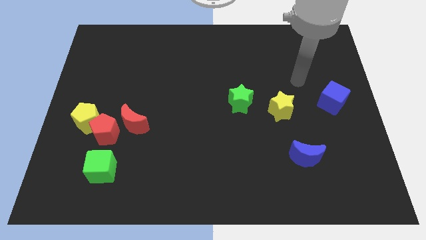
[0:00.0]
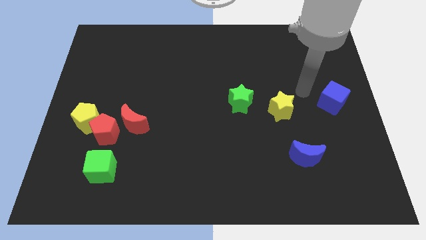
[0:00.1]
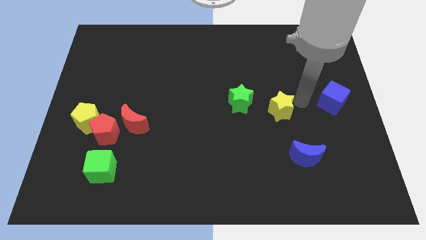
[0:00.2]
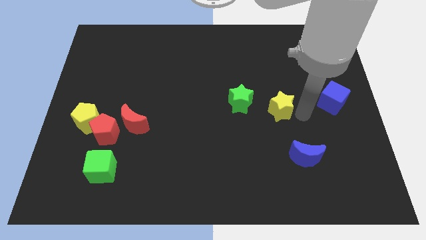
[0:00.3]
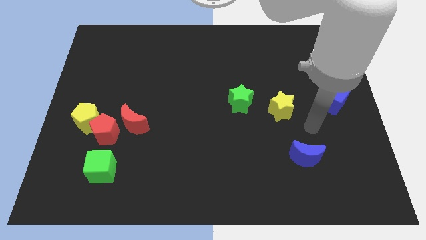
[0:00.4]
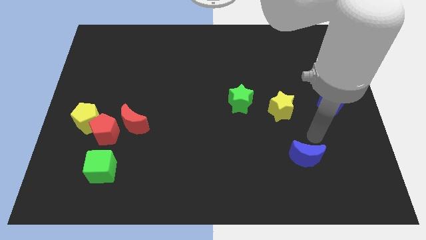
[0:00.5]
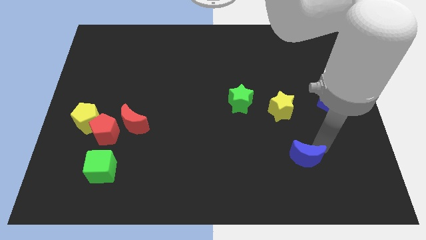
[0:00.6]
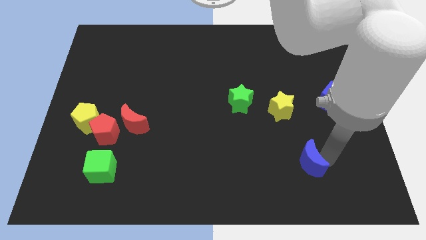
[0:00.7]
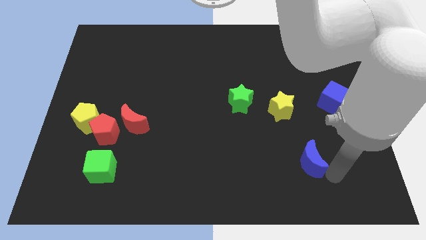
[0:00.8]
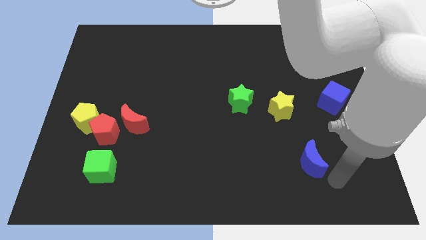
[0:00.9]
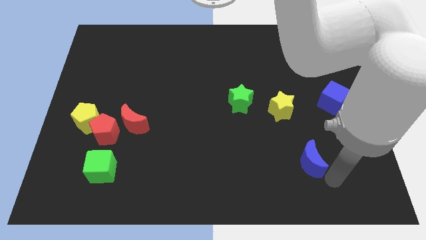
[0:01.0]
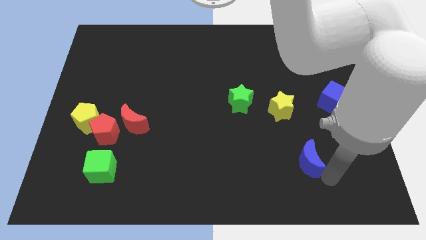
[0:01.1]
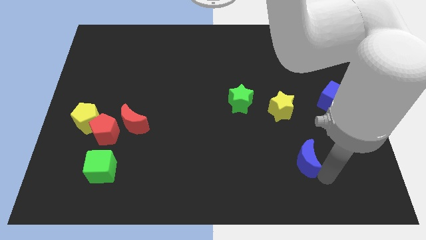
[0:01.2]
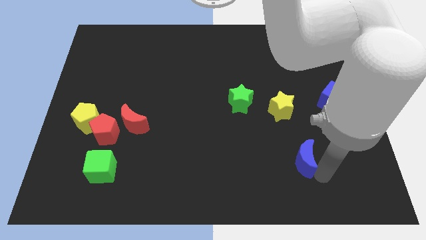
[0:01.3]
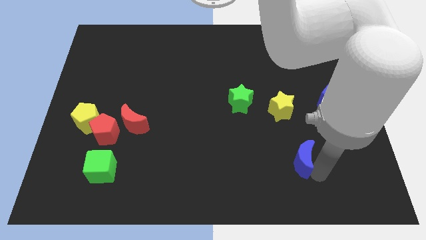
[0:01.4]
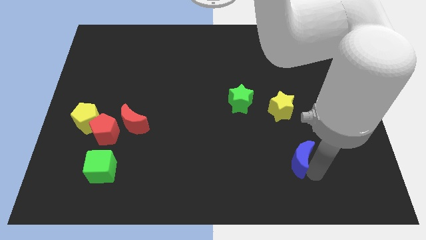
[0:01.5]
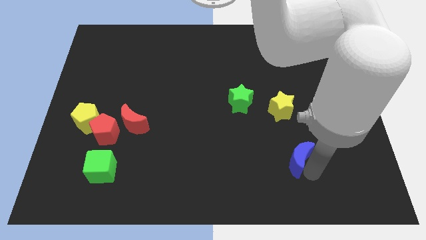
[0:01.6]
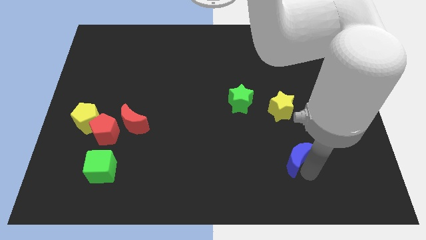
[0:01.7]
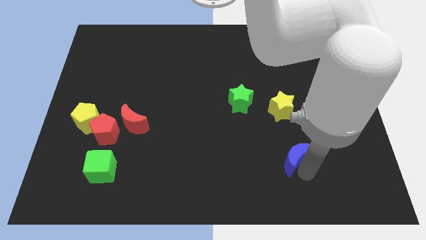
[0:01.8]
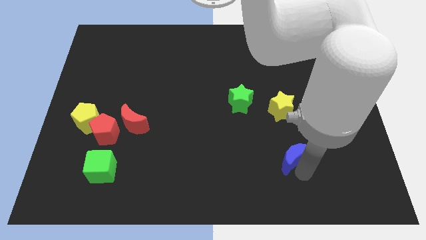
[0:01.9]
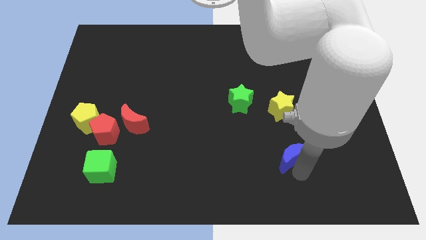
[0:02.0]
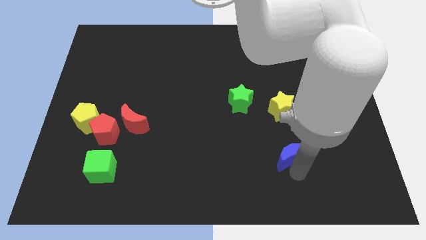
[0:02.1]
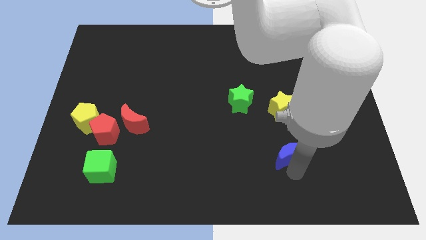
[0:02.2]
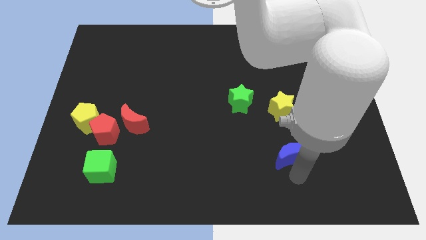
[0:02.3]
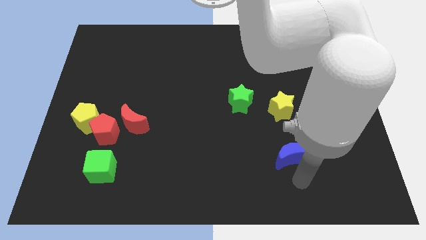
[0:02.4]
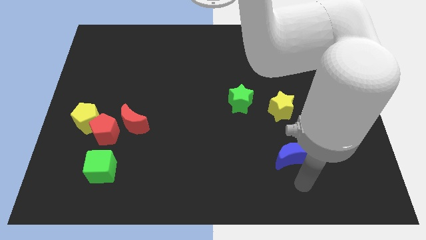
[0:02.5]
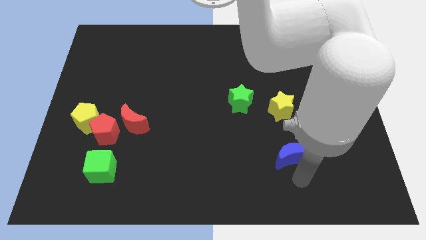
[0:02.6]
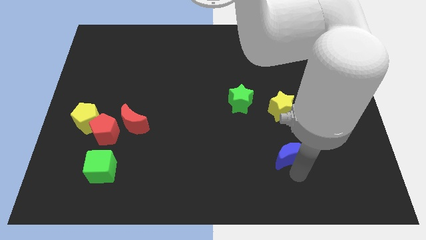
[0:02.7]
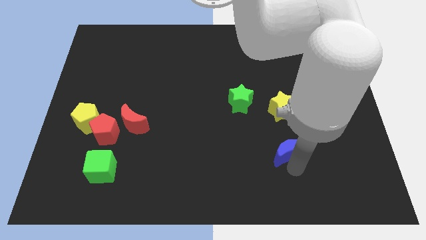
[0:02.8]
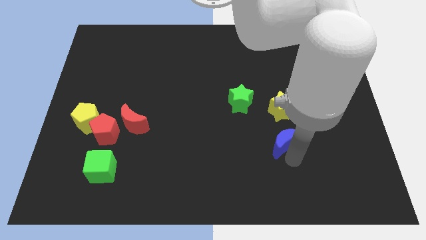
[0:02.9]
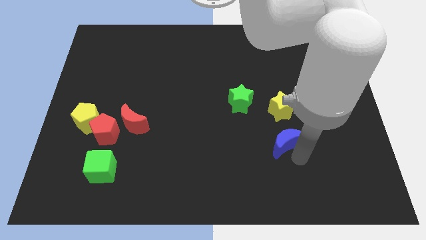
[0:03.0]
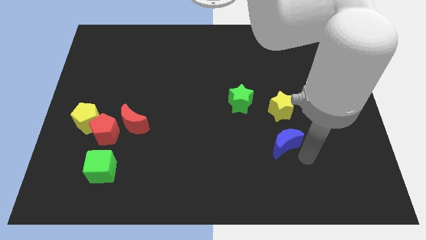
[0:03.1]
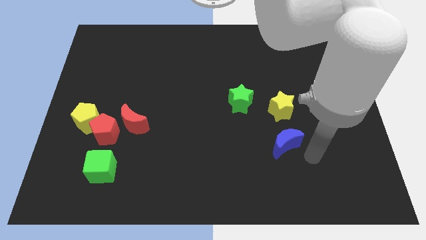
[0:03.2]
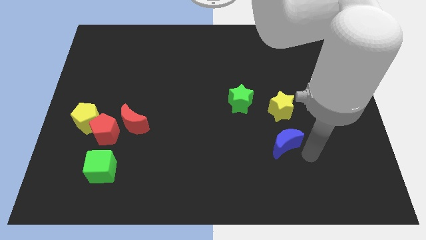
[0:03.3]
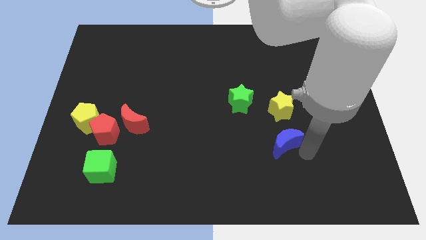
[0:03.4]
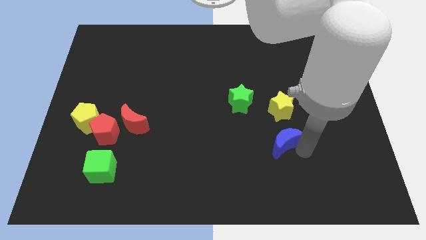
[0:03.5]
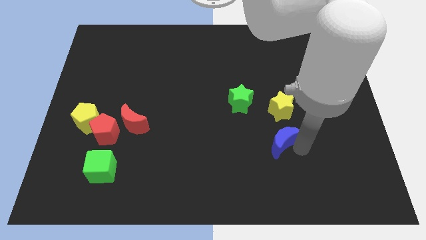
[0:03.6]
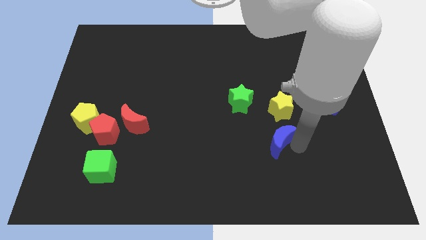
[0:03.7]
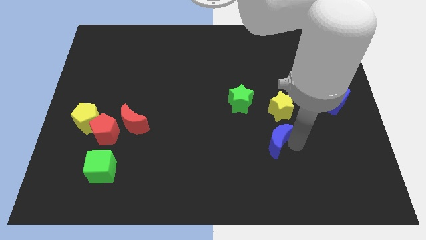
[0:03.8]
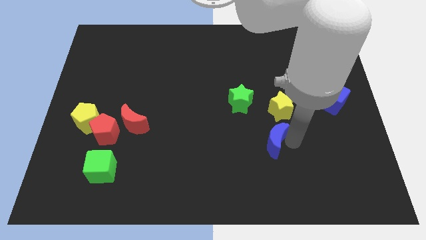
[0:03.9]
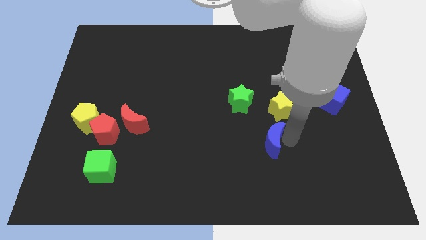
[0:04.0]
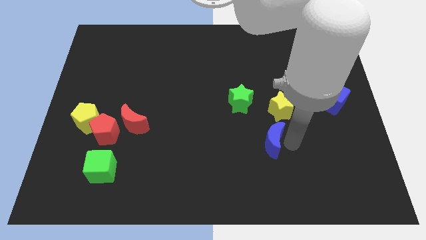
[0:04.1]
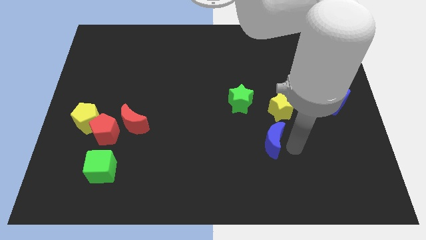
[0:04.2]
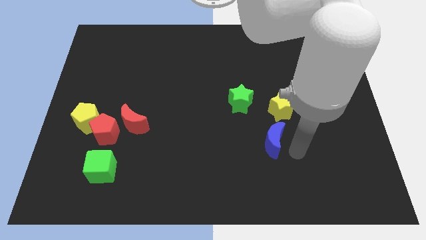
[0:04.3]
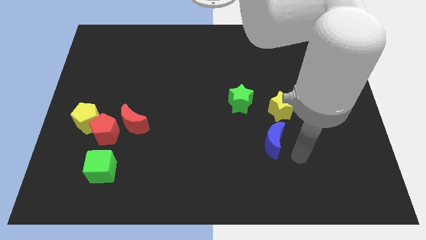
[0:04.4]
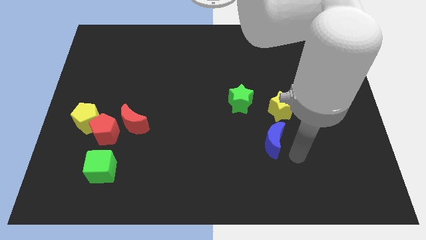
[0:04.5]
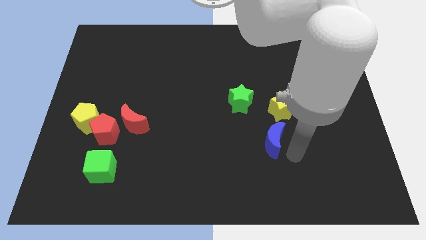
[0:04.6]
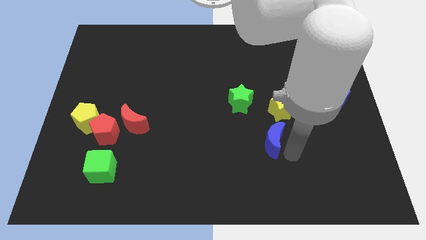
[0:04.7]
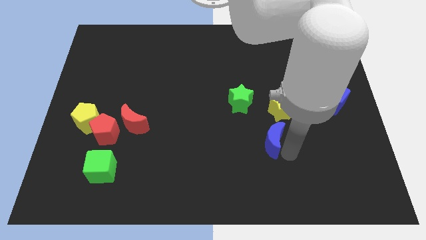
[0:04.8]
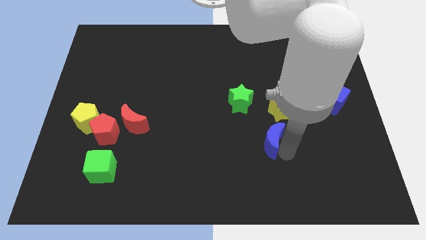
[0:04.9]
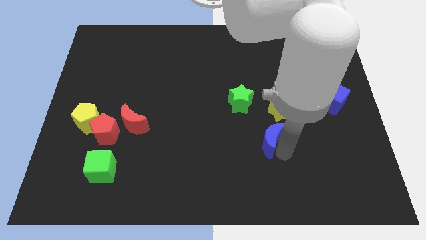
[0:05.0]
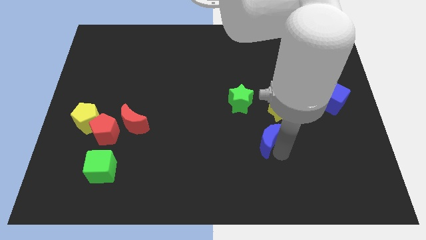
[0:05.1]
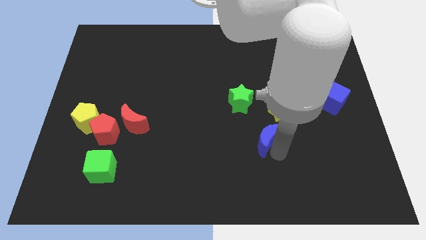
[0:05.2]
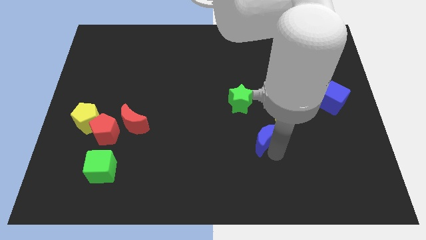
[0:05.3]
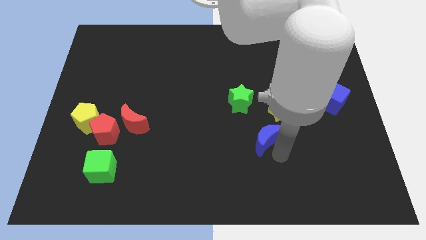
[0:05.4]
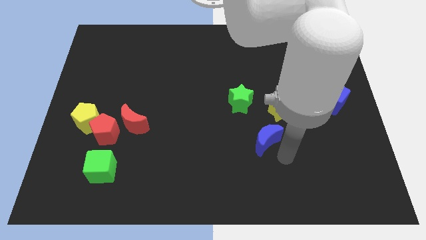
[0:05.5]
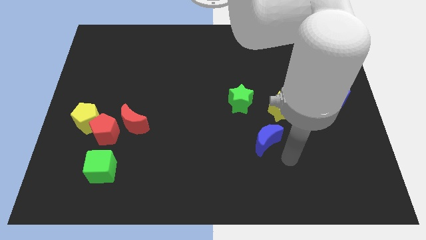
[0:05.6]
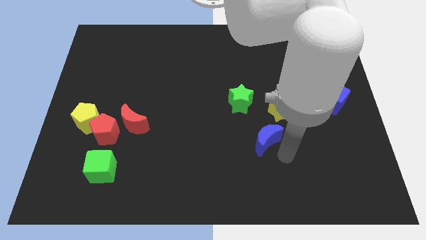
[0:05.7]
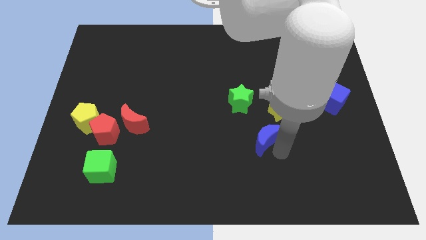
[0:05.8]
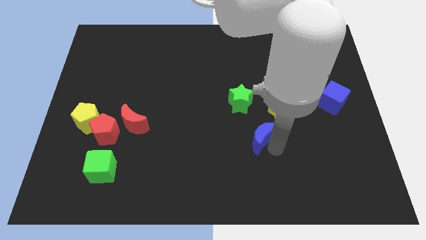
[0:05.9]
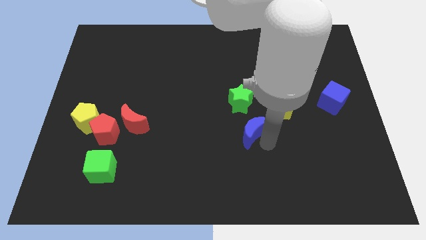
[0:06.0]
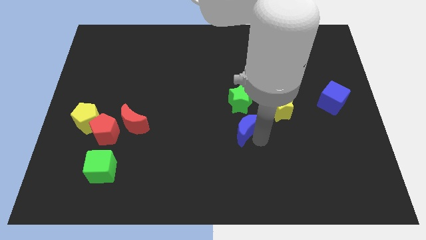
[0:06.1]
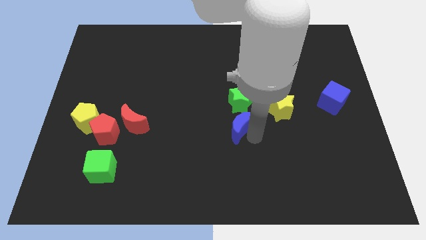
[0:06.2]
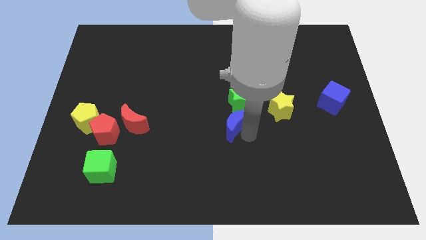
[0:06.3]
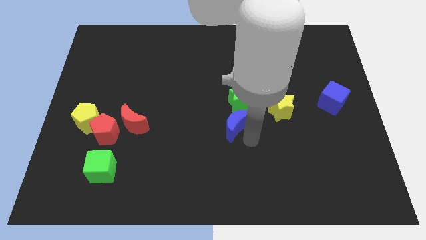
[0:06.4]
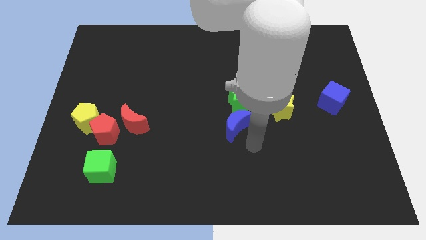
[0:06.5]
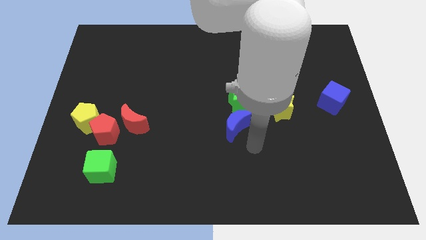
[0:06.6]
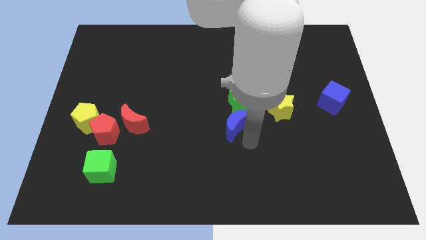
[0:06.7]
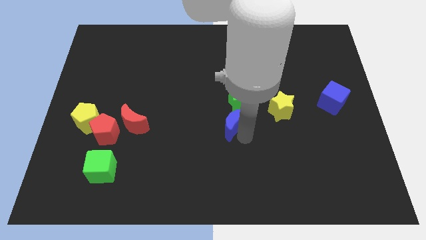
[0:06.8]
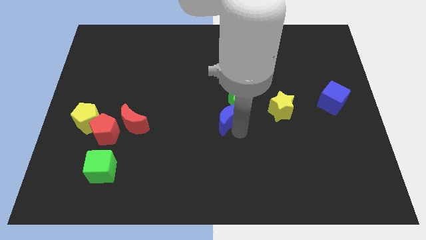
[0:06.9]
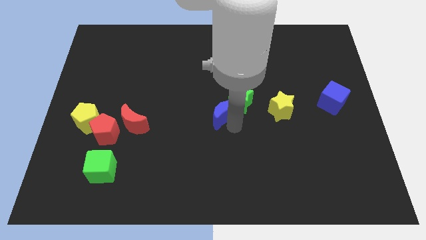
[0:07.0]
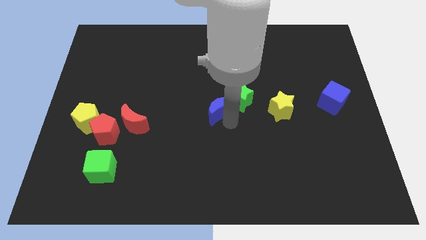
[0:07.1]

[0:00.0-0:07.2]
move the blue moon diagonally up and to the left

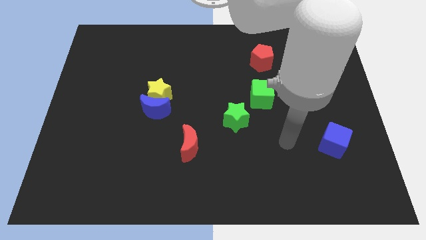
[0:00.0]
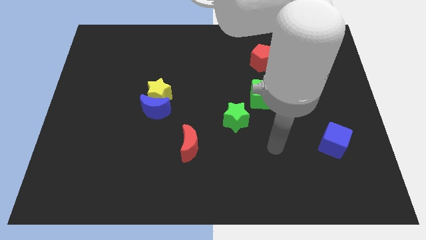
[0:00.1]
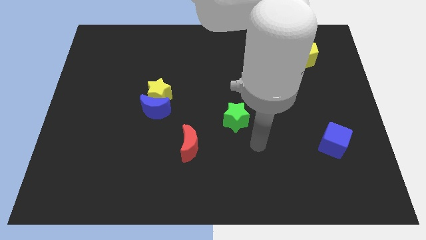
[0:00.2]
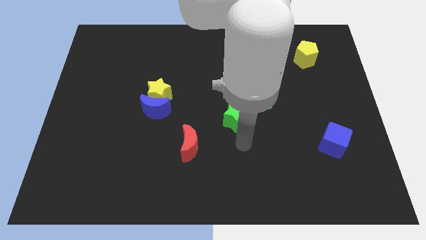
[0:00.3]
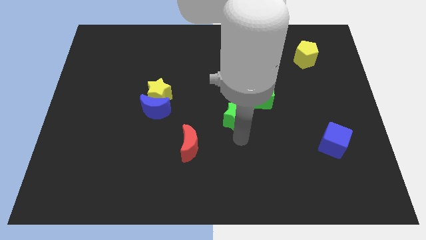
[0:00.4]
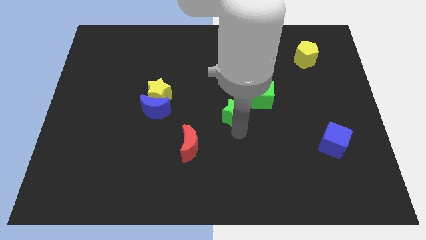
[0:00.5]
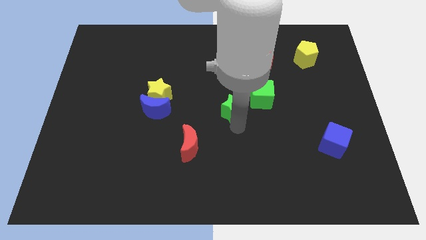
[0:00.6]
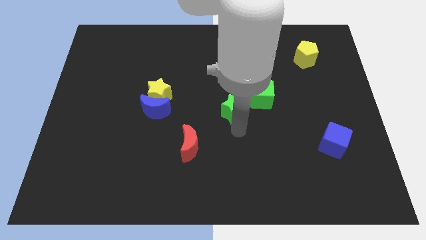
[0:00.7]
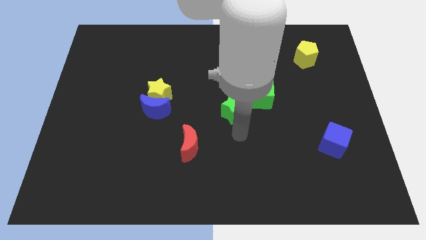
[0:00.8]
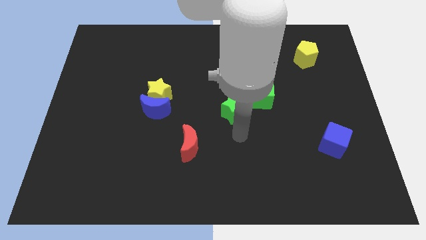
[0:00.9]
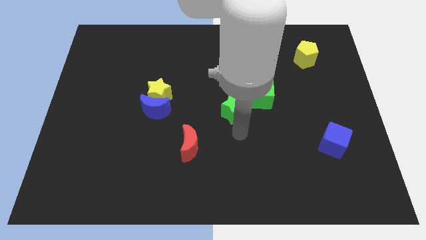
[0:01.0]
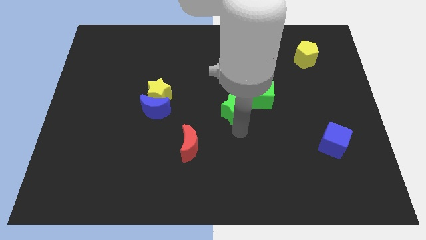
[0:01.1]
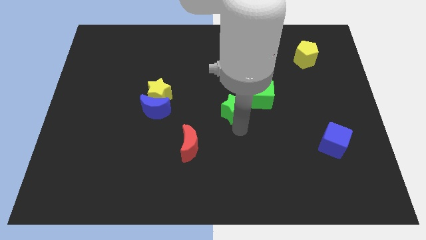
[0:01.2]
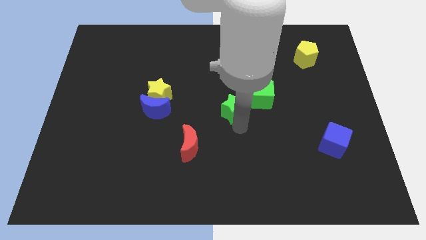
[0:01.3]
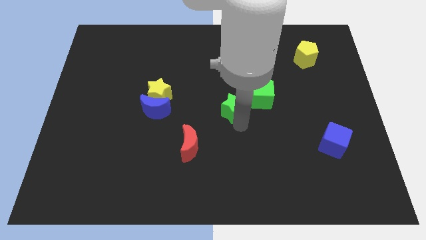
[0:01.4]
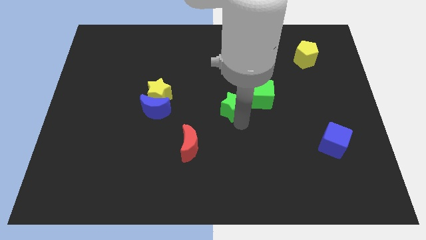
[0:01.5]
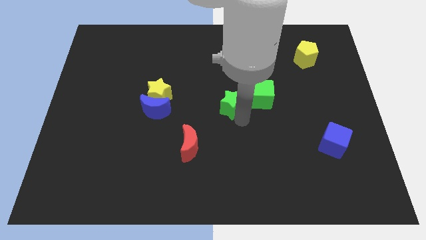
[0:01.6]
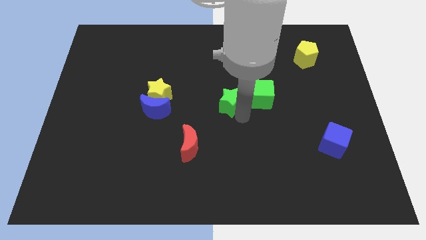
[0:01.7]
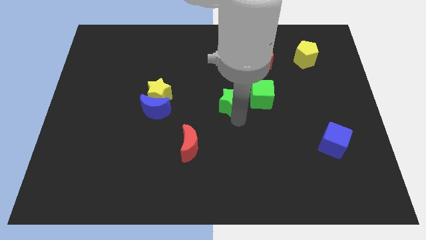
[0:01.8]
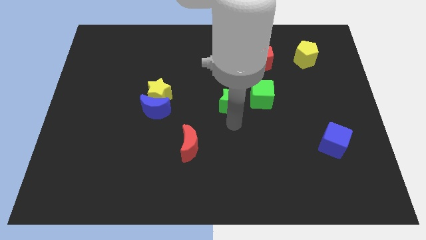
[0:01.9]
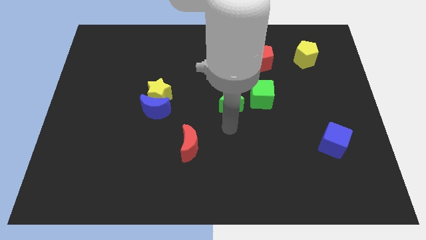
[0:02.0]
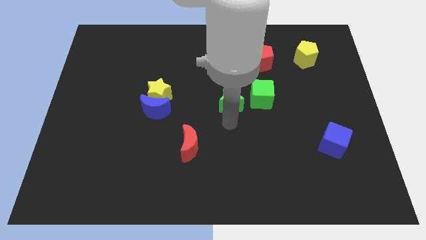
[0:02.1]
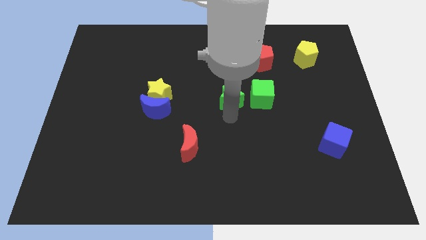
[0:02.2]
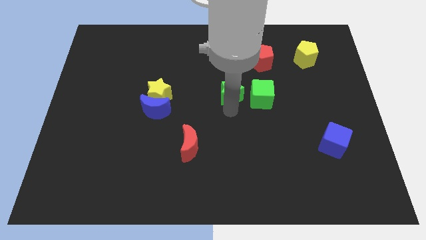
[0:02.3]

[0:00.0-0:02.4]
slightly slide the green star up
